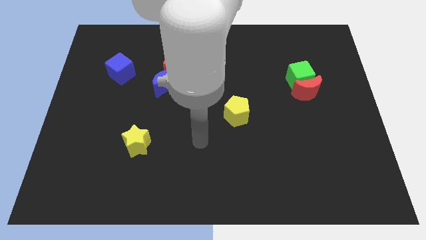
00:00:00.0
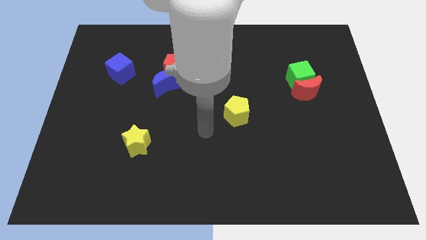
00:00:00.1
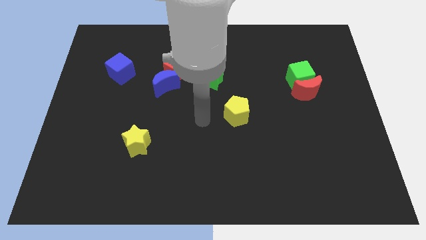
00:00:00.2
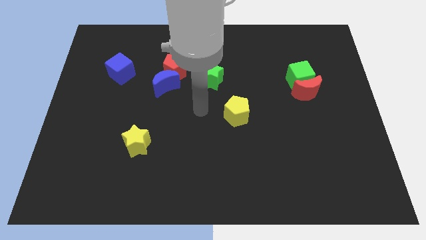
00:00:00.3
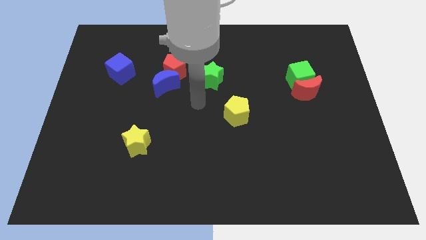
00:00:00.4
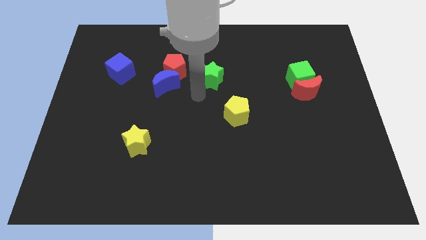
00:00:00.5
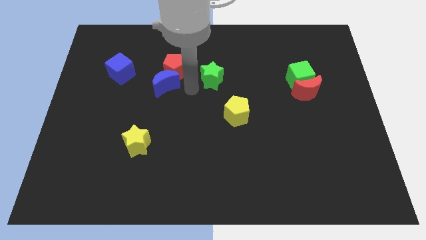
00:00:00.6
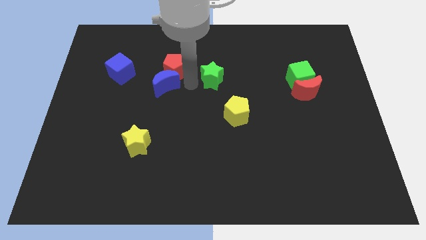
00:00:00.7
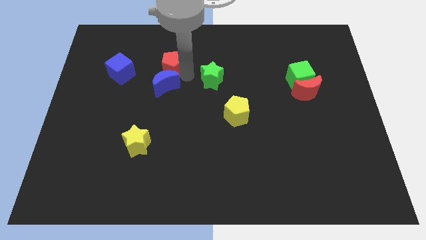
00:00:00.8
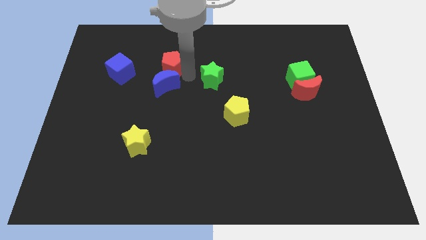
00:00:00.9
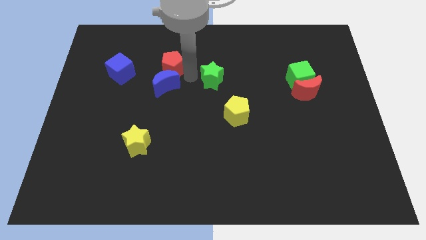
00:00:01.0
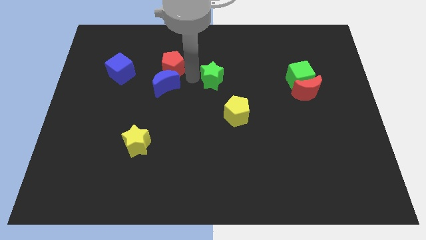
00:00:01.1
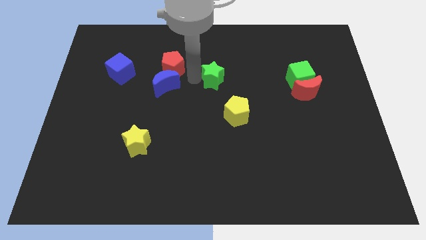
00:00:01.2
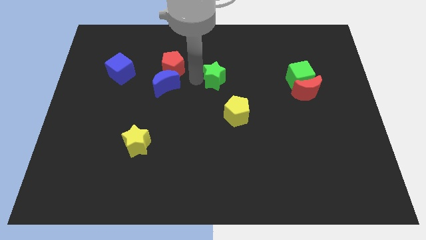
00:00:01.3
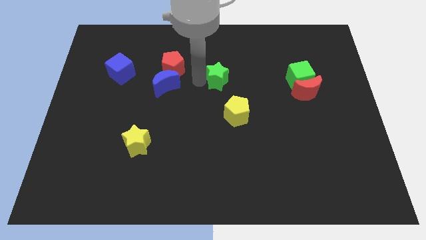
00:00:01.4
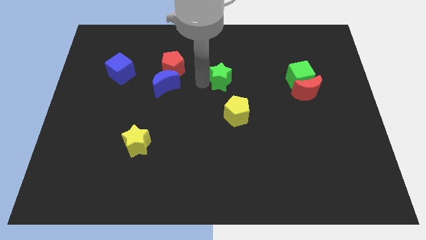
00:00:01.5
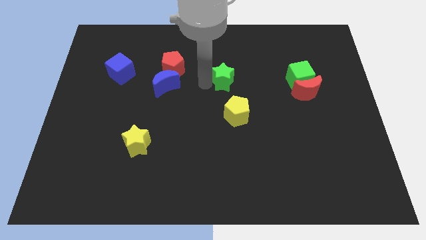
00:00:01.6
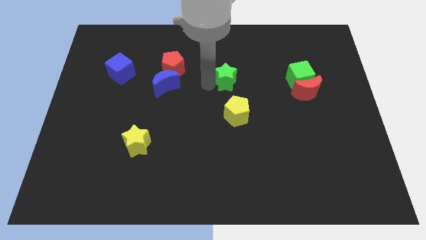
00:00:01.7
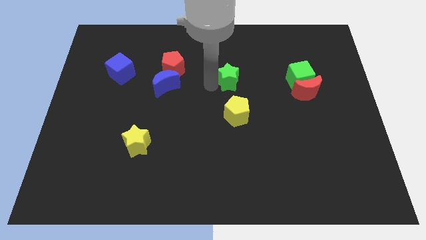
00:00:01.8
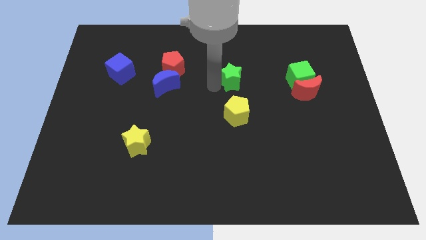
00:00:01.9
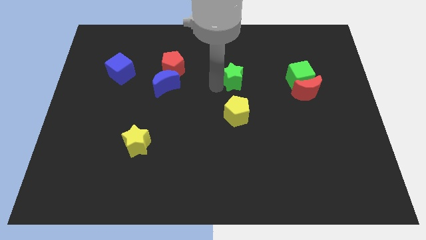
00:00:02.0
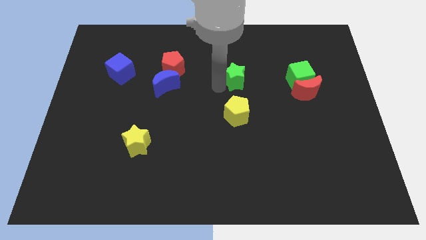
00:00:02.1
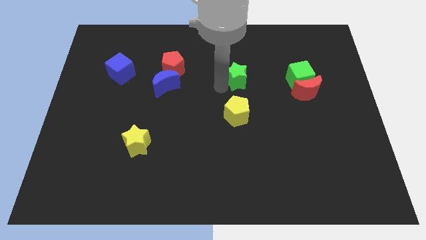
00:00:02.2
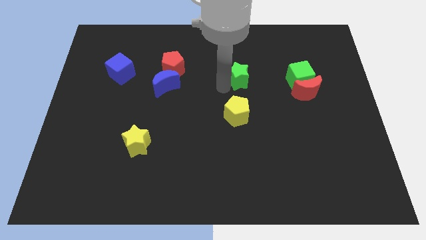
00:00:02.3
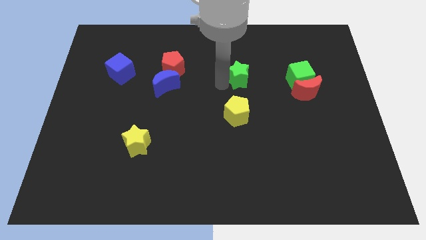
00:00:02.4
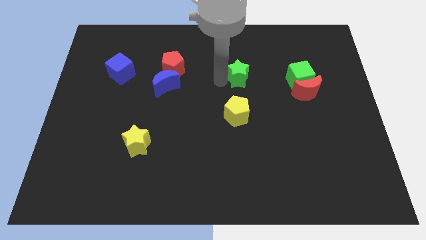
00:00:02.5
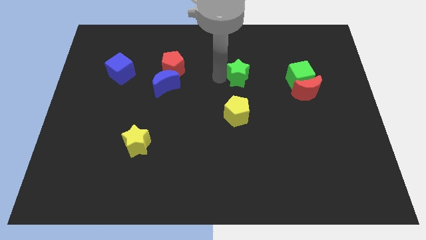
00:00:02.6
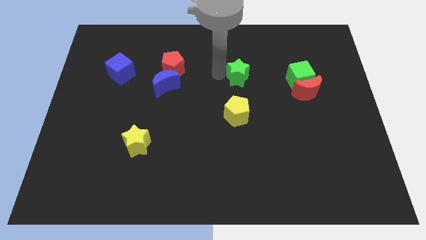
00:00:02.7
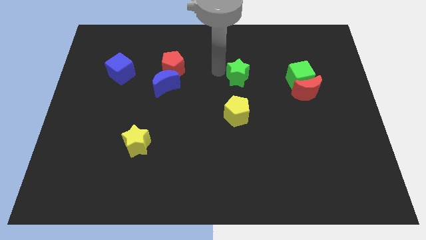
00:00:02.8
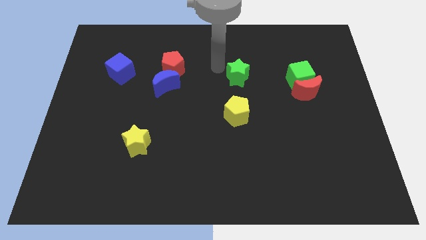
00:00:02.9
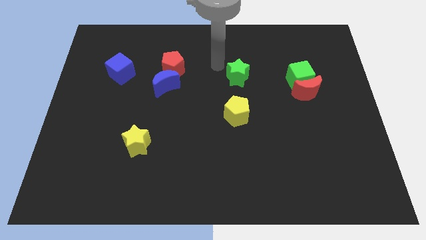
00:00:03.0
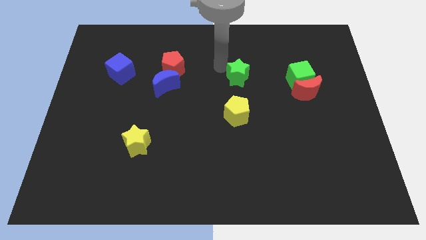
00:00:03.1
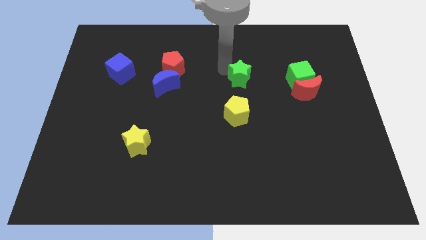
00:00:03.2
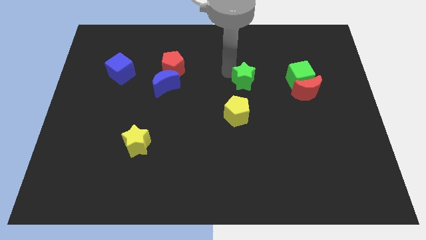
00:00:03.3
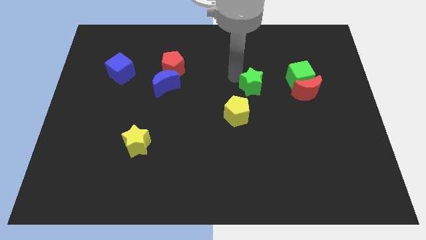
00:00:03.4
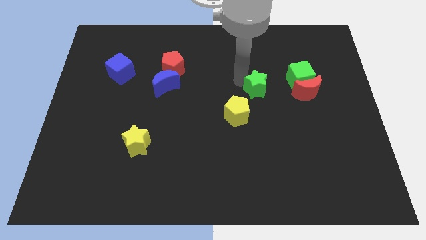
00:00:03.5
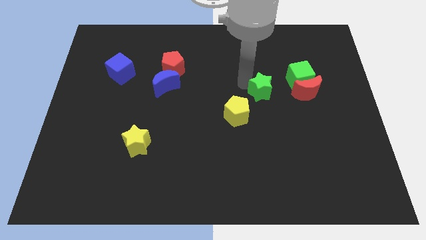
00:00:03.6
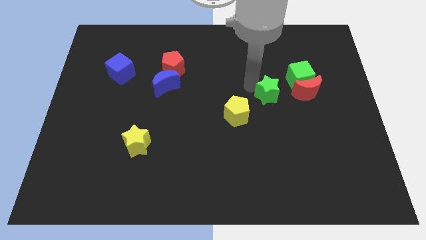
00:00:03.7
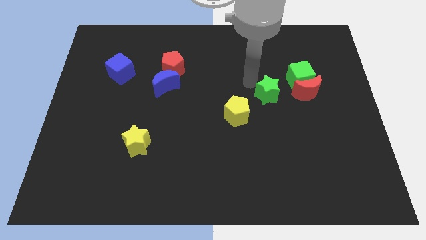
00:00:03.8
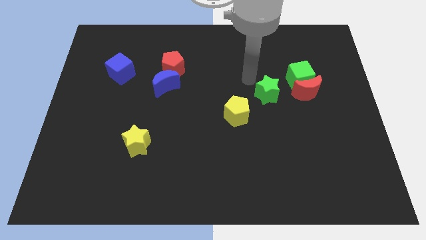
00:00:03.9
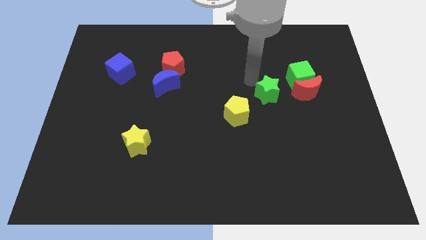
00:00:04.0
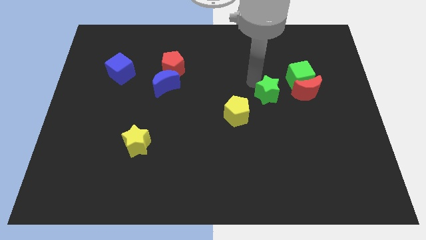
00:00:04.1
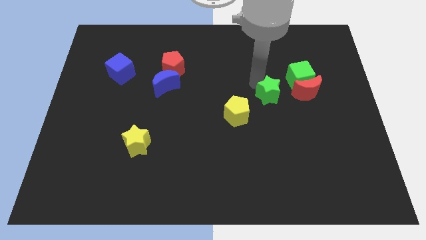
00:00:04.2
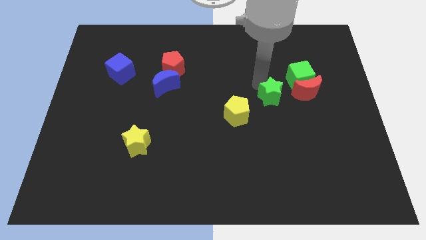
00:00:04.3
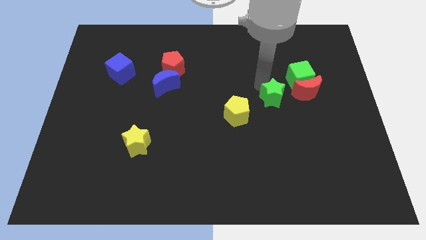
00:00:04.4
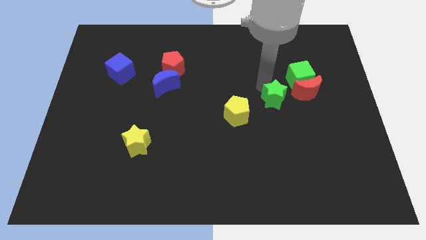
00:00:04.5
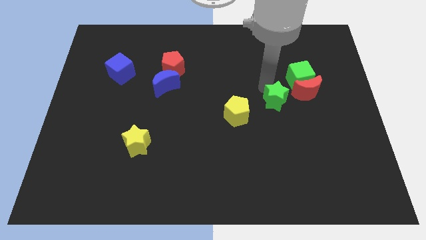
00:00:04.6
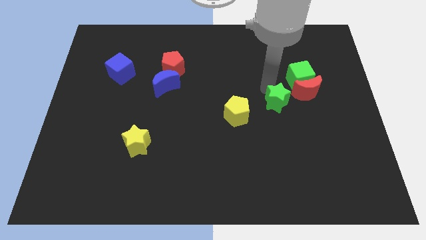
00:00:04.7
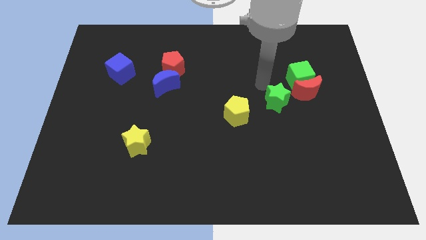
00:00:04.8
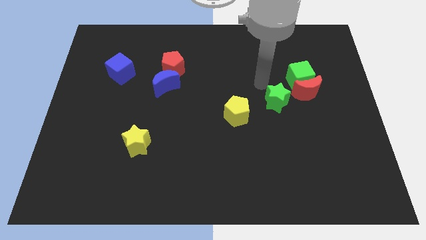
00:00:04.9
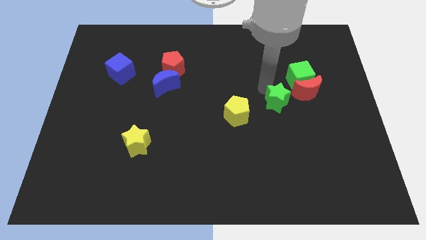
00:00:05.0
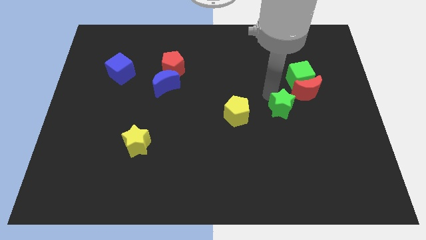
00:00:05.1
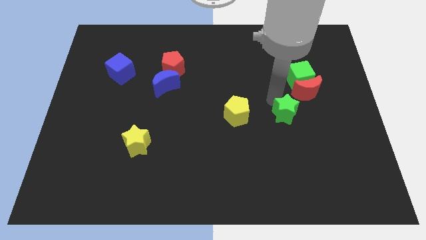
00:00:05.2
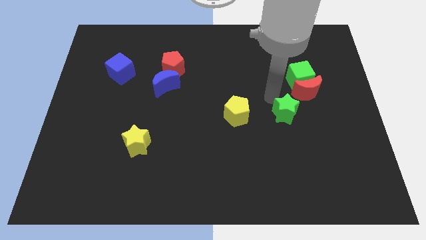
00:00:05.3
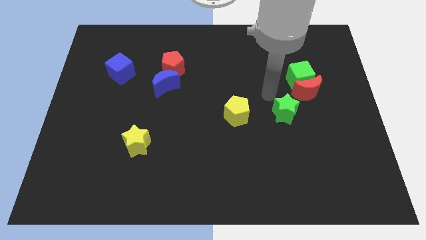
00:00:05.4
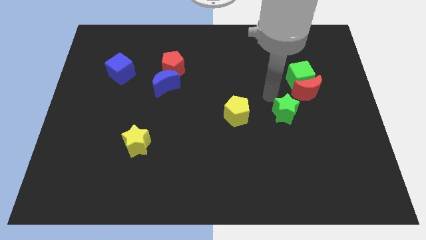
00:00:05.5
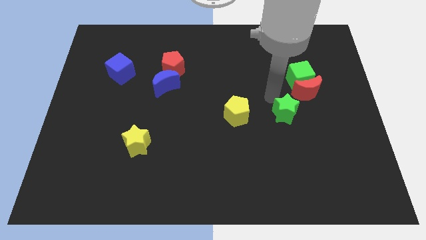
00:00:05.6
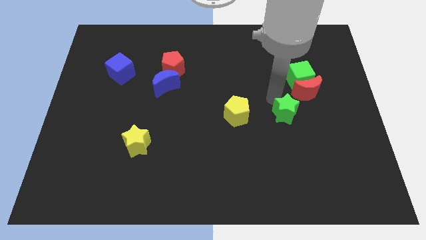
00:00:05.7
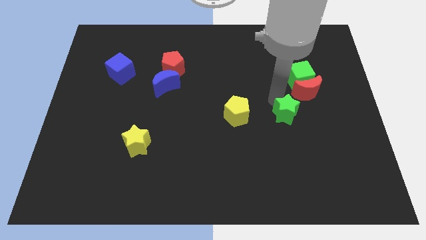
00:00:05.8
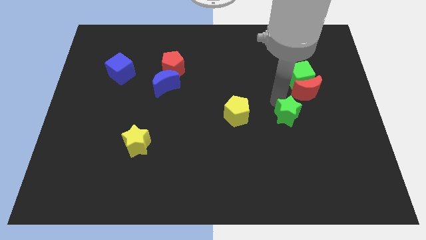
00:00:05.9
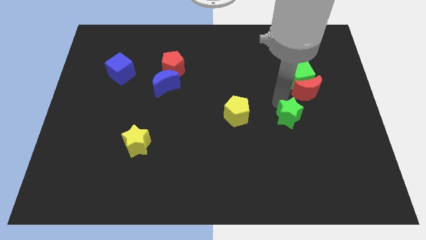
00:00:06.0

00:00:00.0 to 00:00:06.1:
slide the green star downwards and then right

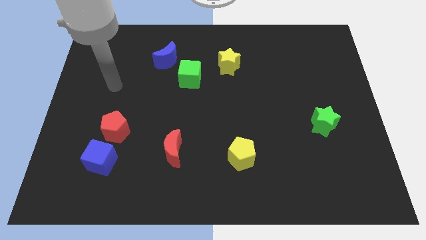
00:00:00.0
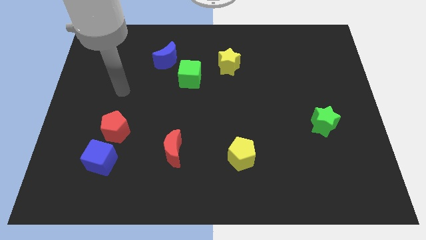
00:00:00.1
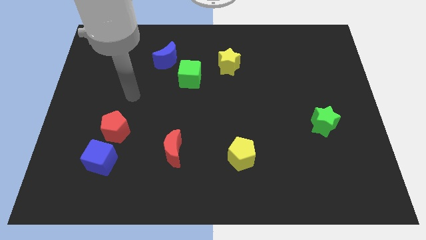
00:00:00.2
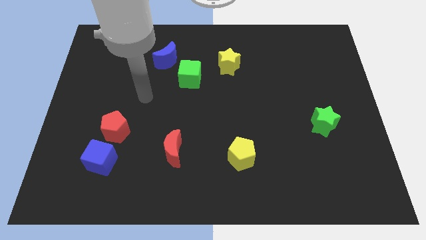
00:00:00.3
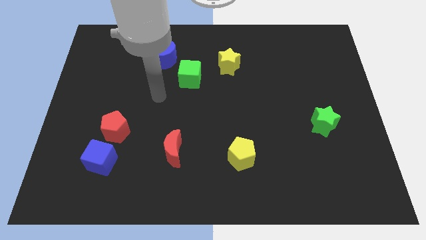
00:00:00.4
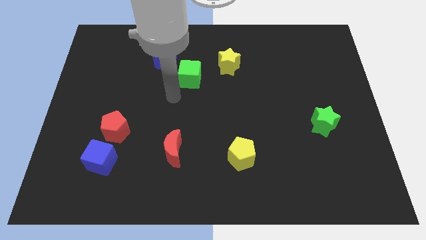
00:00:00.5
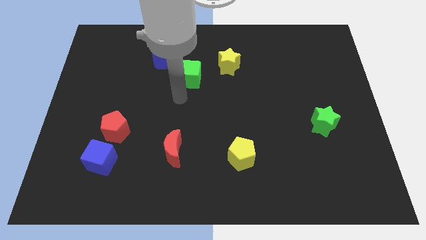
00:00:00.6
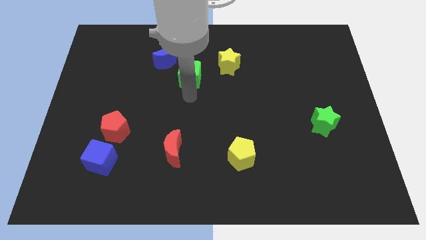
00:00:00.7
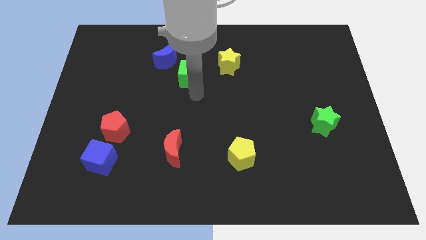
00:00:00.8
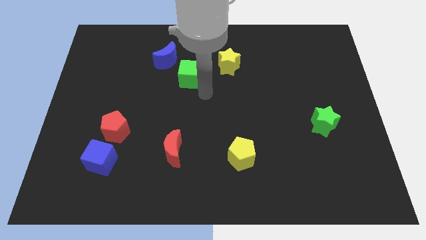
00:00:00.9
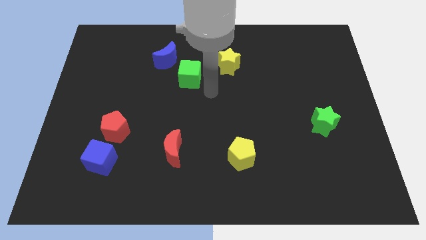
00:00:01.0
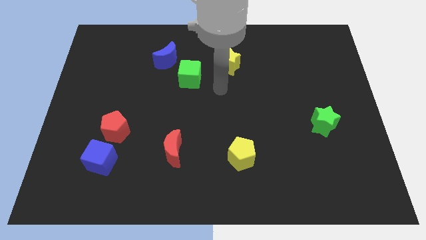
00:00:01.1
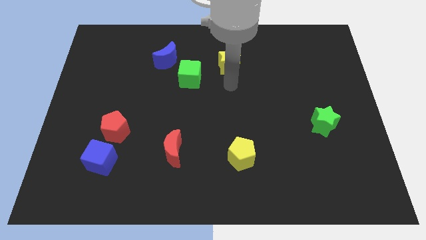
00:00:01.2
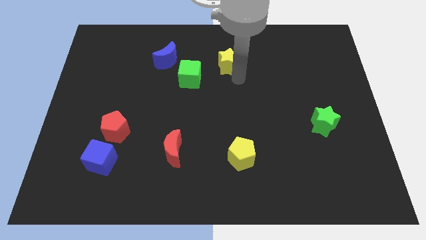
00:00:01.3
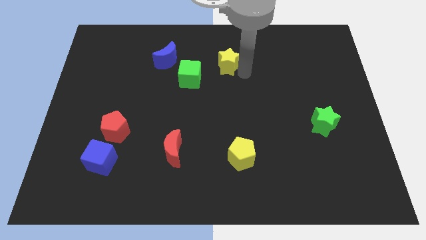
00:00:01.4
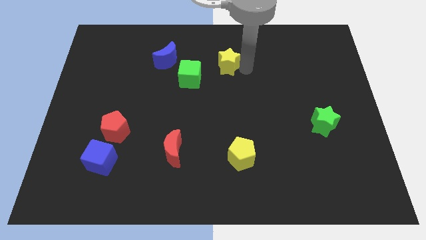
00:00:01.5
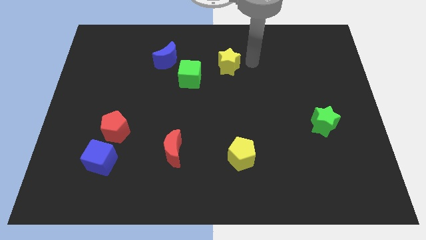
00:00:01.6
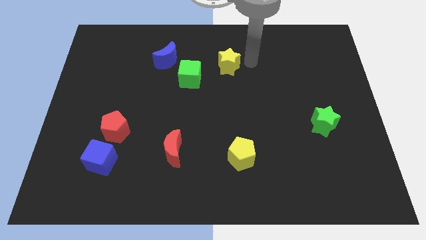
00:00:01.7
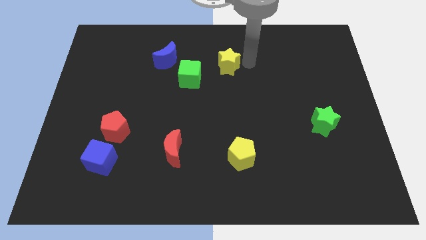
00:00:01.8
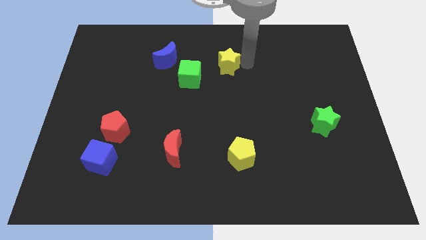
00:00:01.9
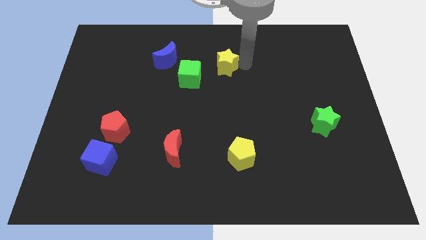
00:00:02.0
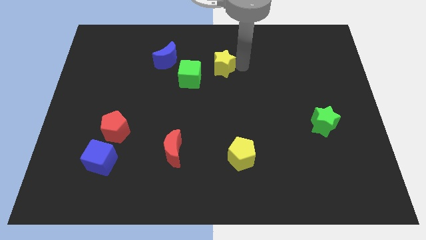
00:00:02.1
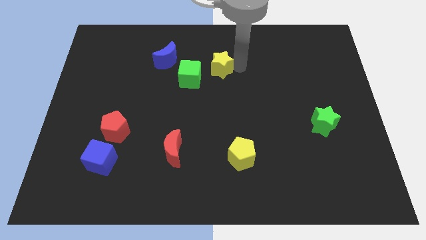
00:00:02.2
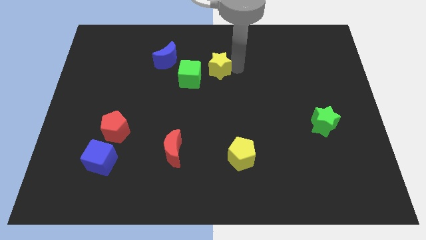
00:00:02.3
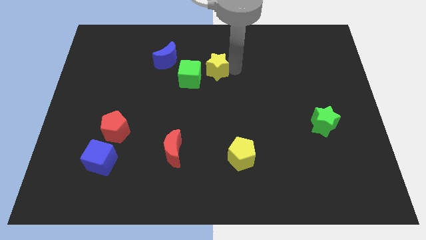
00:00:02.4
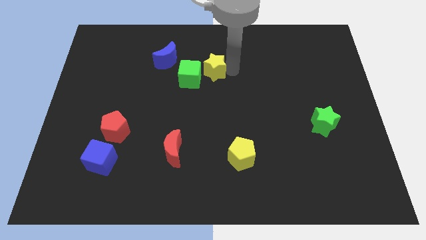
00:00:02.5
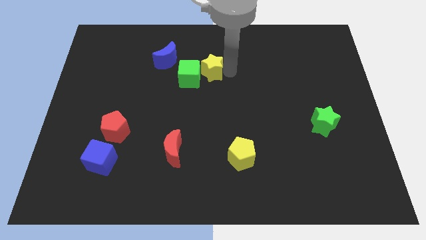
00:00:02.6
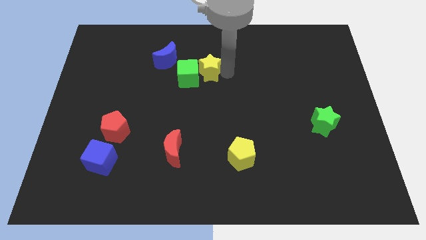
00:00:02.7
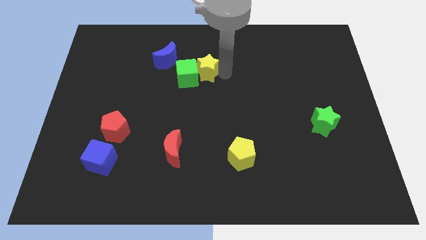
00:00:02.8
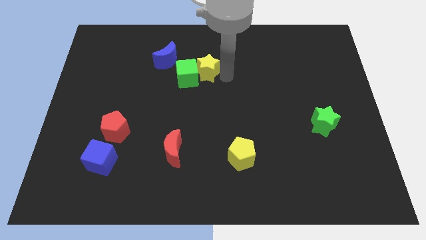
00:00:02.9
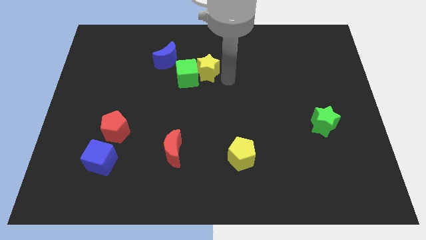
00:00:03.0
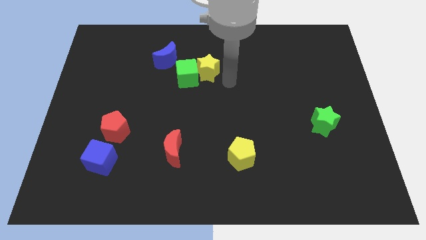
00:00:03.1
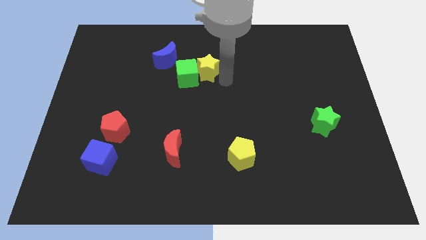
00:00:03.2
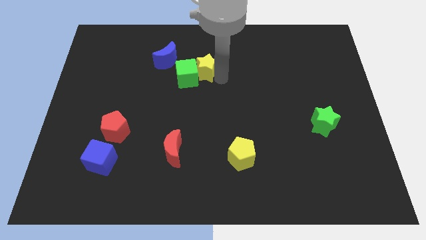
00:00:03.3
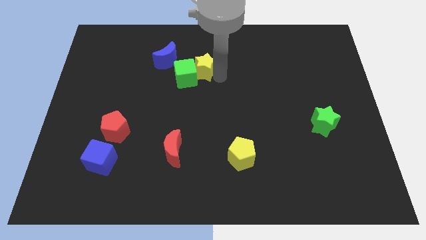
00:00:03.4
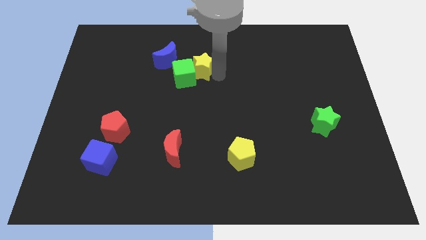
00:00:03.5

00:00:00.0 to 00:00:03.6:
push the yellow star left a little
